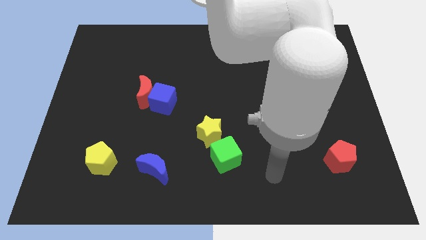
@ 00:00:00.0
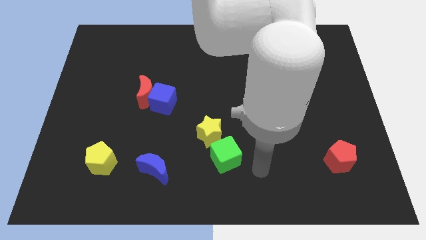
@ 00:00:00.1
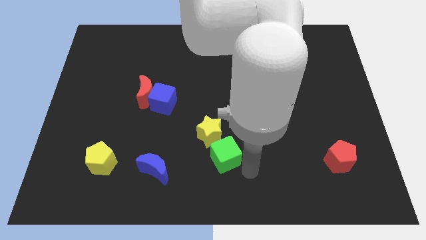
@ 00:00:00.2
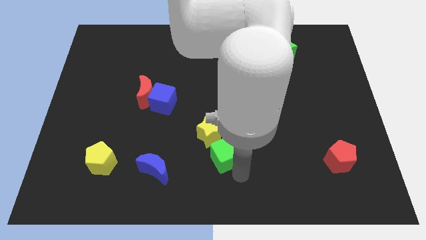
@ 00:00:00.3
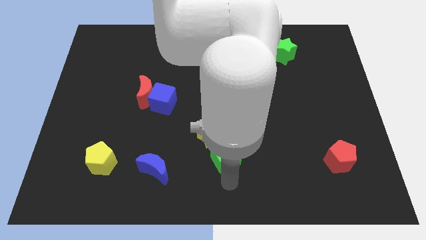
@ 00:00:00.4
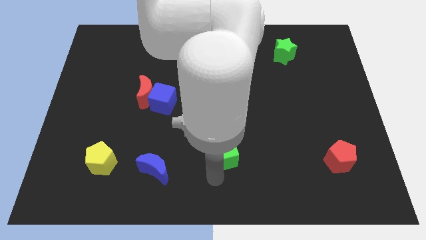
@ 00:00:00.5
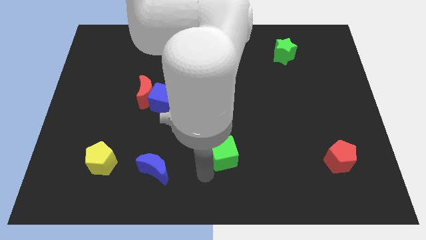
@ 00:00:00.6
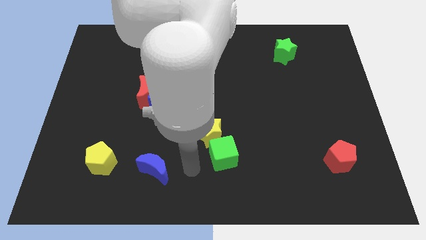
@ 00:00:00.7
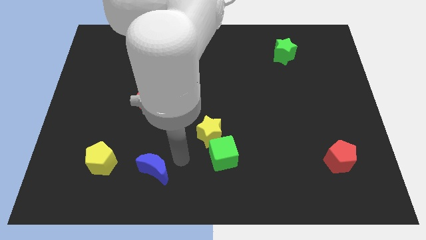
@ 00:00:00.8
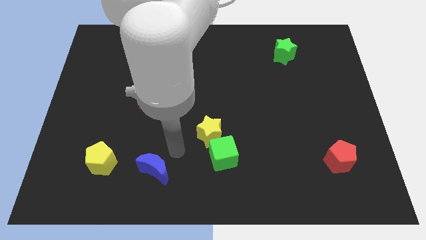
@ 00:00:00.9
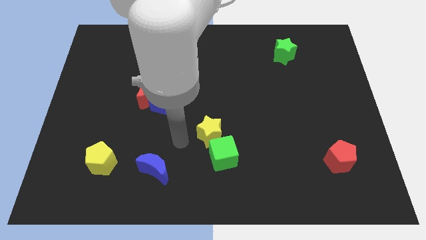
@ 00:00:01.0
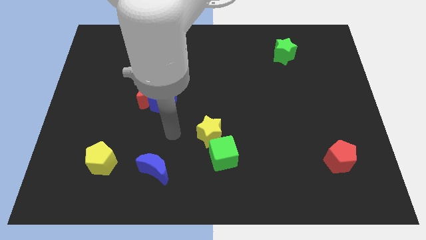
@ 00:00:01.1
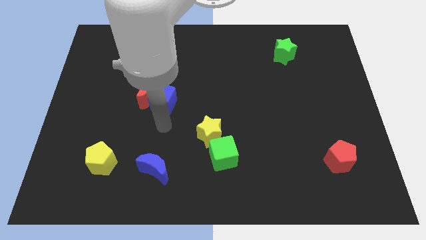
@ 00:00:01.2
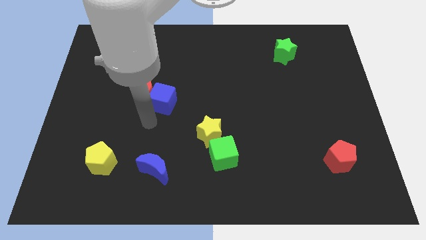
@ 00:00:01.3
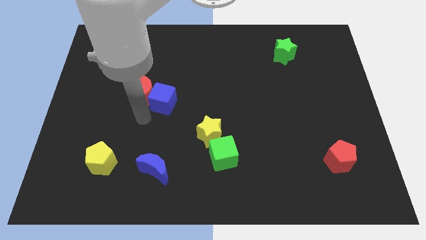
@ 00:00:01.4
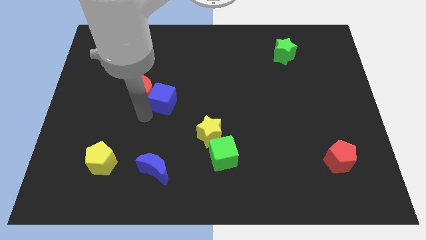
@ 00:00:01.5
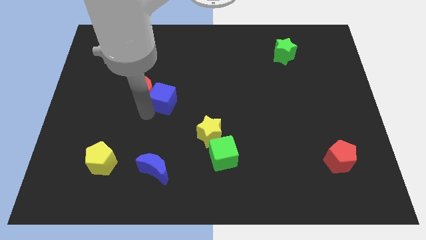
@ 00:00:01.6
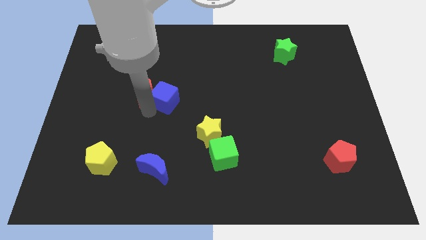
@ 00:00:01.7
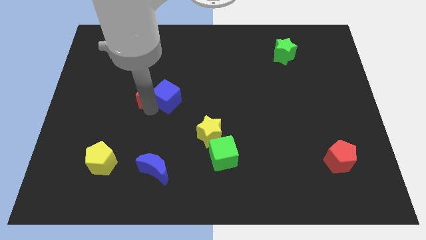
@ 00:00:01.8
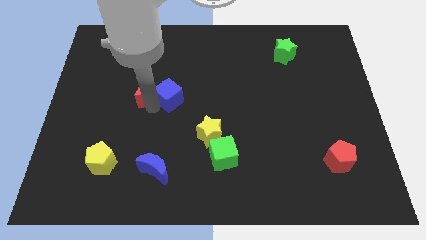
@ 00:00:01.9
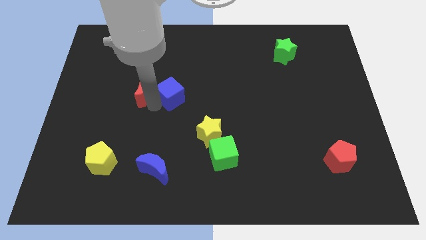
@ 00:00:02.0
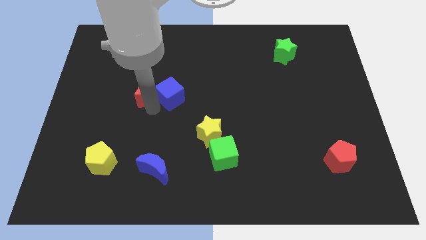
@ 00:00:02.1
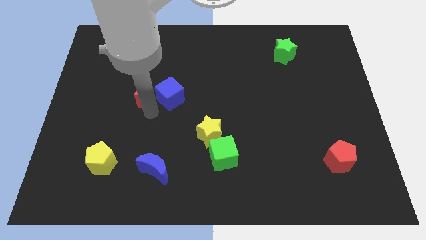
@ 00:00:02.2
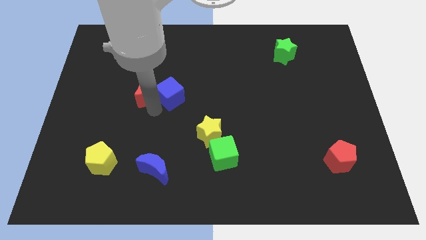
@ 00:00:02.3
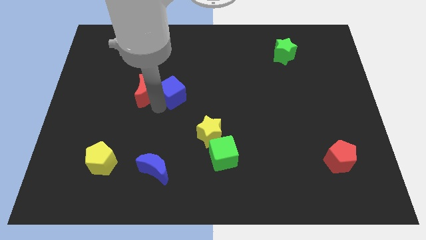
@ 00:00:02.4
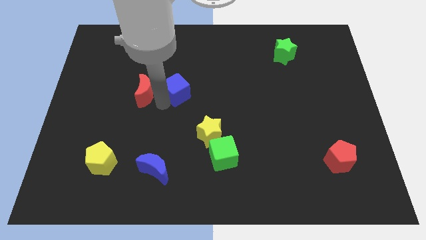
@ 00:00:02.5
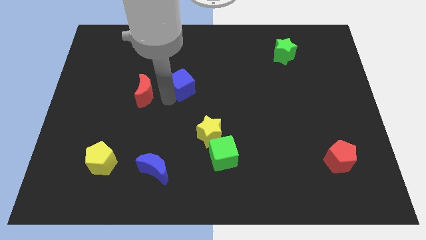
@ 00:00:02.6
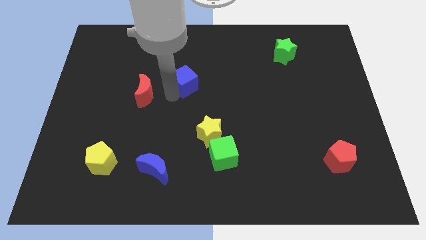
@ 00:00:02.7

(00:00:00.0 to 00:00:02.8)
push the blue cube a little up and right diagonally

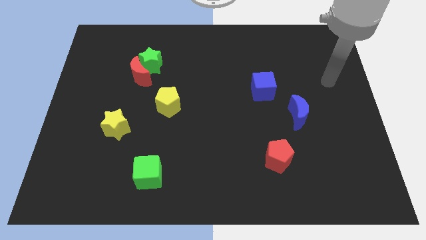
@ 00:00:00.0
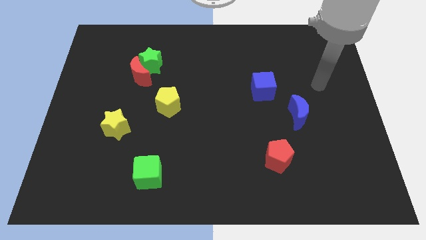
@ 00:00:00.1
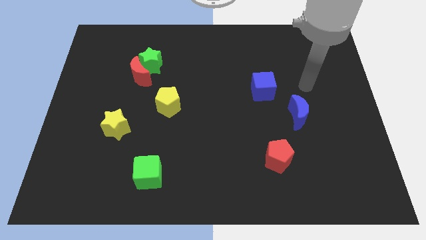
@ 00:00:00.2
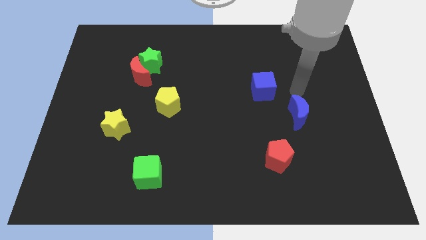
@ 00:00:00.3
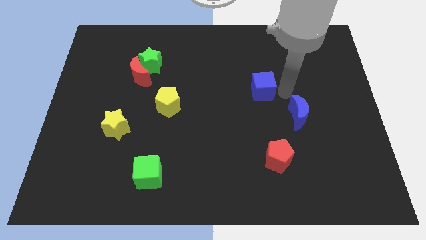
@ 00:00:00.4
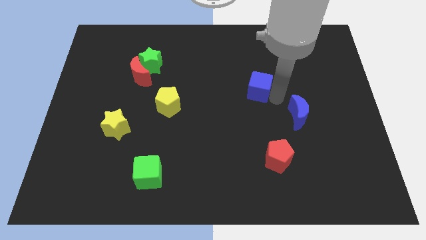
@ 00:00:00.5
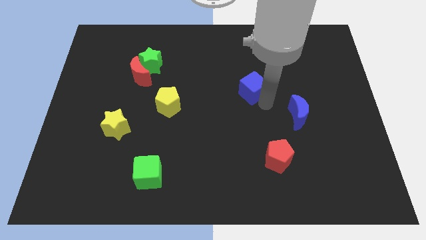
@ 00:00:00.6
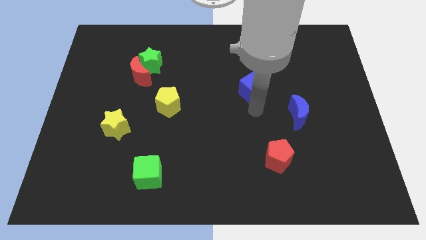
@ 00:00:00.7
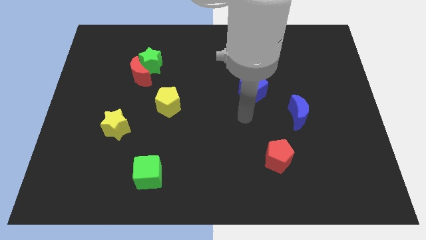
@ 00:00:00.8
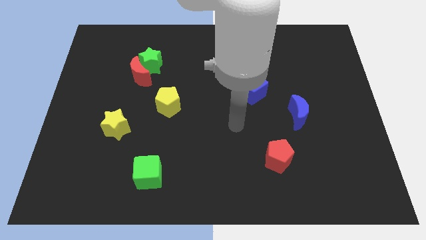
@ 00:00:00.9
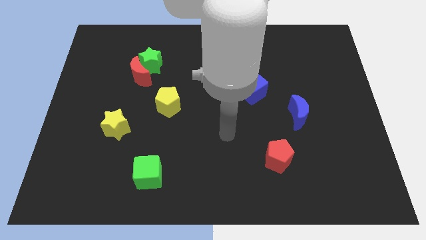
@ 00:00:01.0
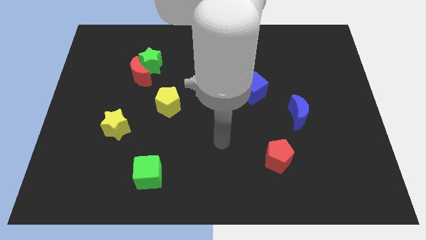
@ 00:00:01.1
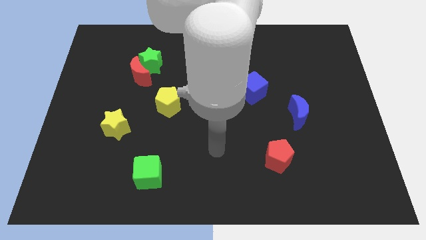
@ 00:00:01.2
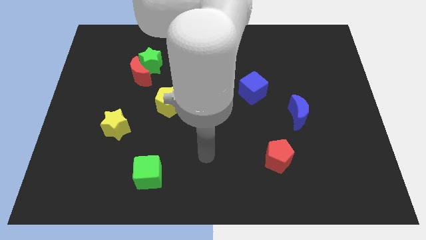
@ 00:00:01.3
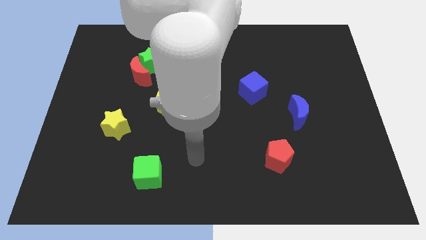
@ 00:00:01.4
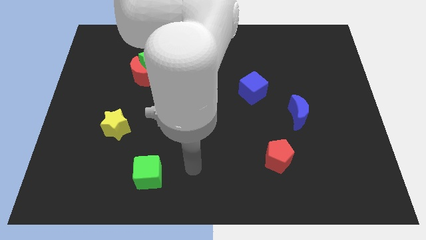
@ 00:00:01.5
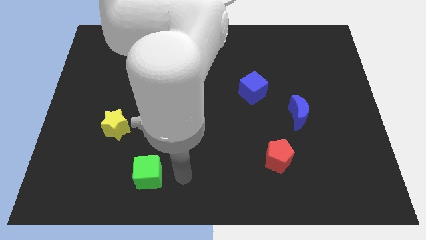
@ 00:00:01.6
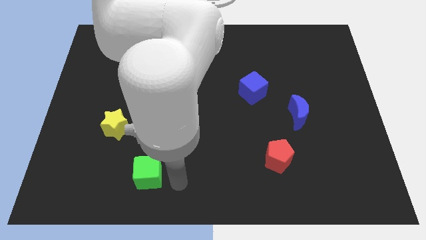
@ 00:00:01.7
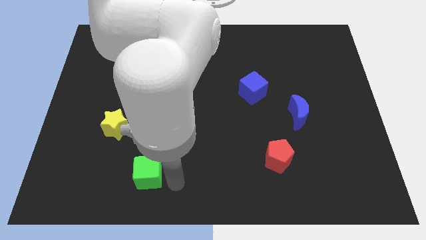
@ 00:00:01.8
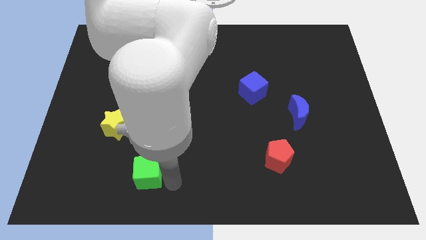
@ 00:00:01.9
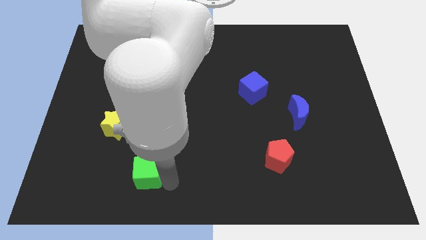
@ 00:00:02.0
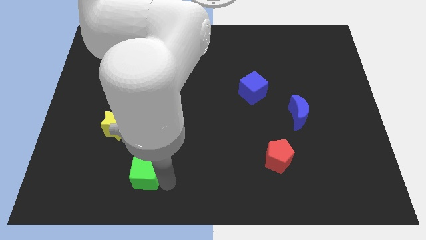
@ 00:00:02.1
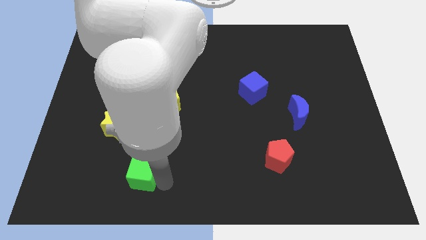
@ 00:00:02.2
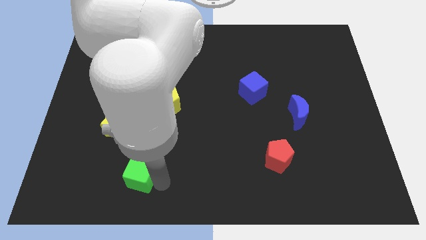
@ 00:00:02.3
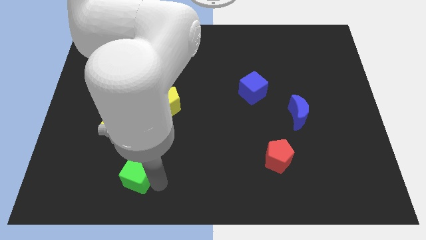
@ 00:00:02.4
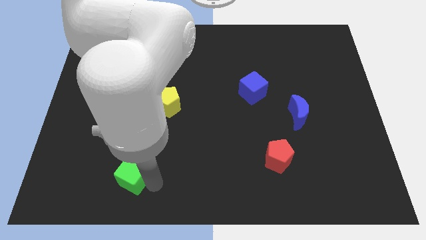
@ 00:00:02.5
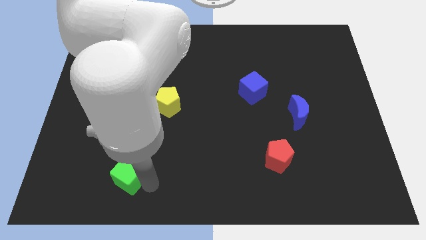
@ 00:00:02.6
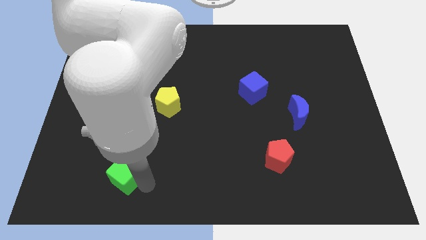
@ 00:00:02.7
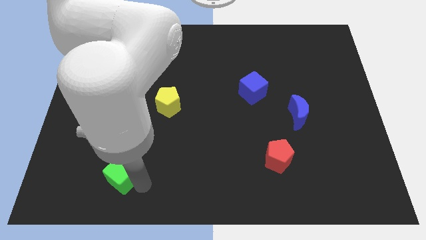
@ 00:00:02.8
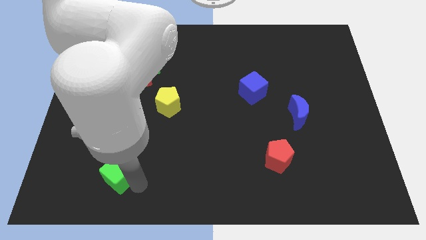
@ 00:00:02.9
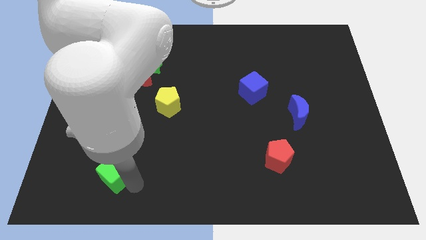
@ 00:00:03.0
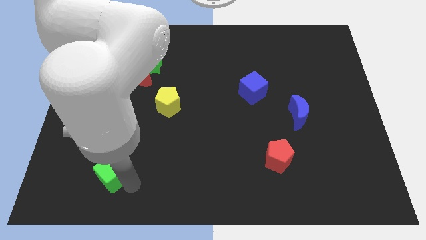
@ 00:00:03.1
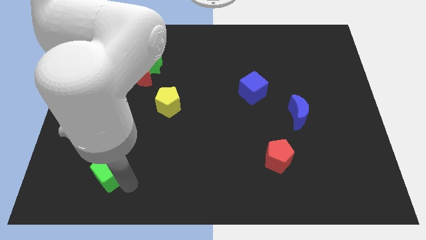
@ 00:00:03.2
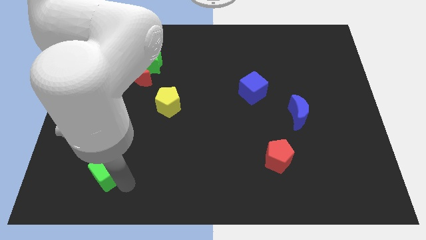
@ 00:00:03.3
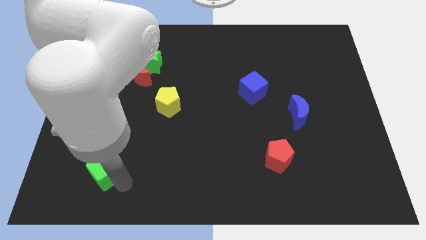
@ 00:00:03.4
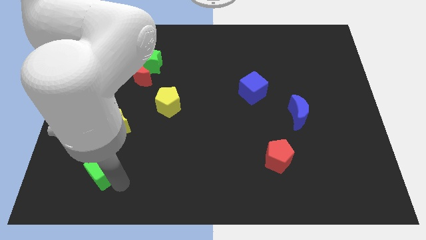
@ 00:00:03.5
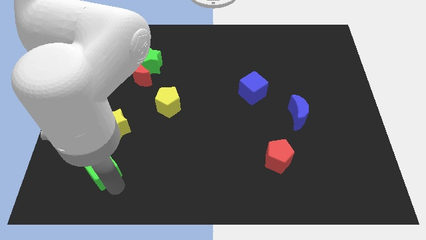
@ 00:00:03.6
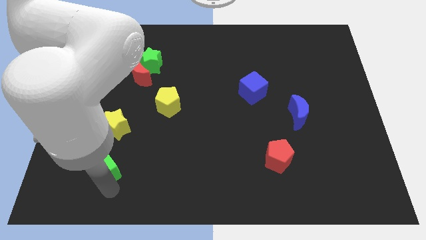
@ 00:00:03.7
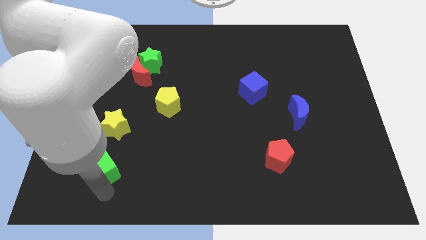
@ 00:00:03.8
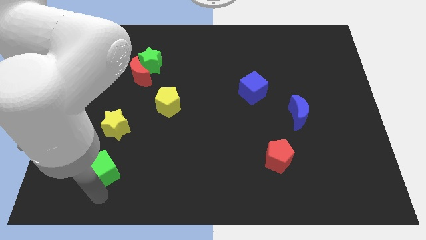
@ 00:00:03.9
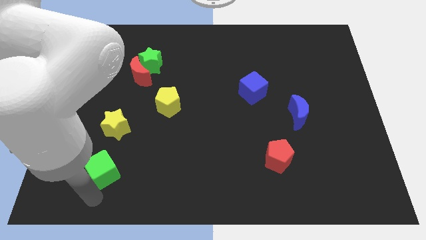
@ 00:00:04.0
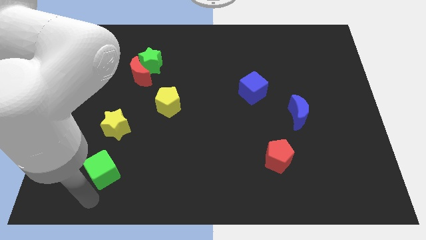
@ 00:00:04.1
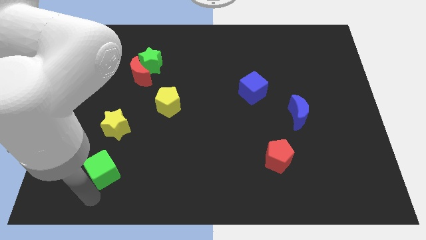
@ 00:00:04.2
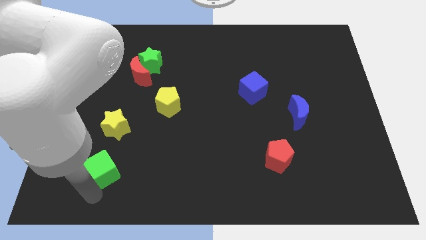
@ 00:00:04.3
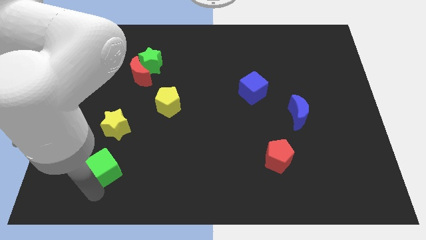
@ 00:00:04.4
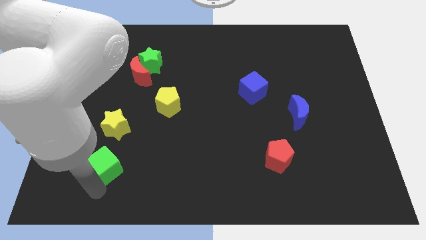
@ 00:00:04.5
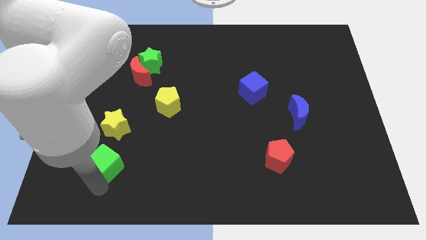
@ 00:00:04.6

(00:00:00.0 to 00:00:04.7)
slide the green cube up and then left a little bit

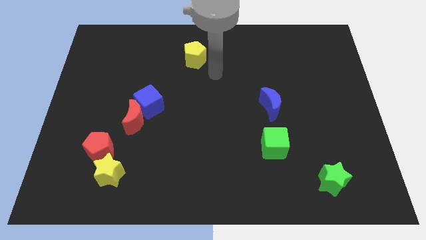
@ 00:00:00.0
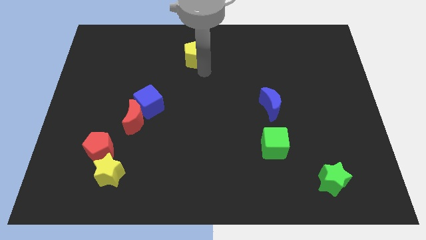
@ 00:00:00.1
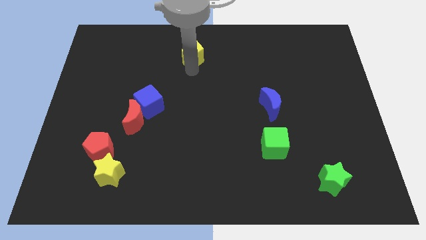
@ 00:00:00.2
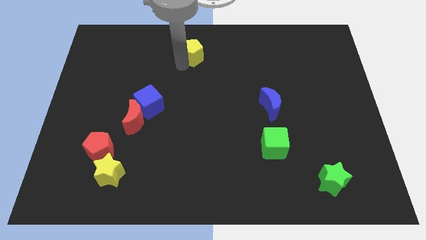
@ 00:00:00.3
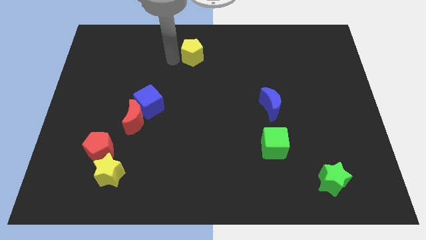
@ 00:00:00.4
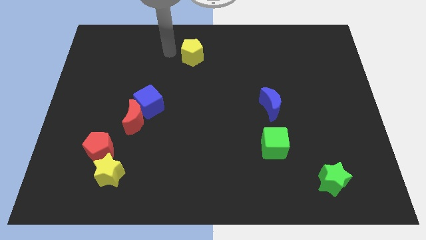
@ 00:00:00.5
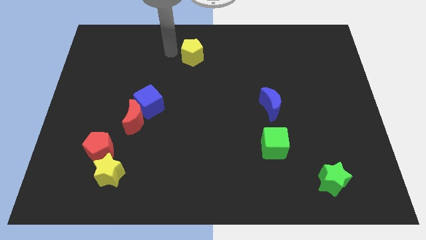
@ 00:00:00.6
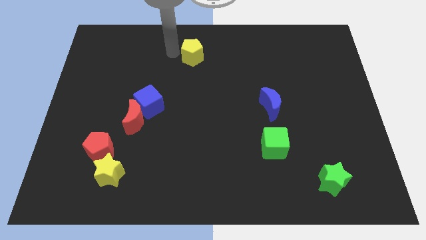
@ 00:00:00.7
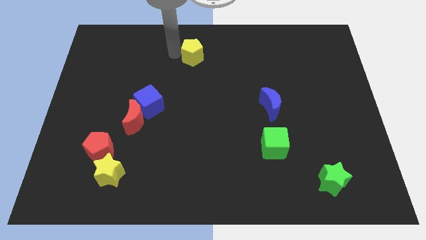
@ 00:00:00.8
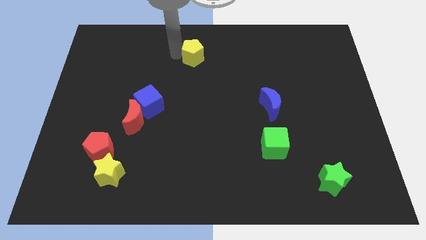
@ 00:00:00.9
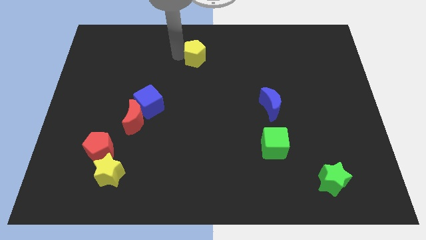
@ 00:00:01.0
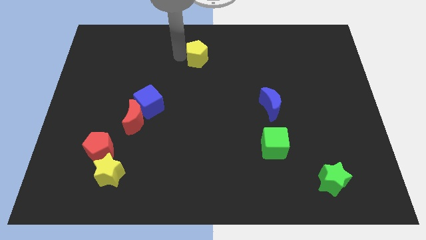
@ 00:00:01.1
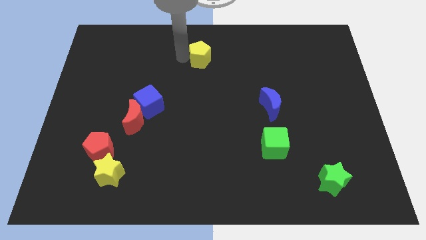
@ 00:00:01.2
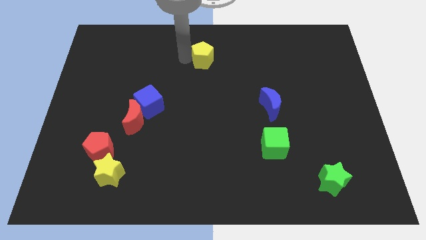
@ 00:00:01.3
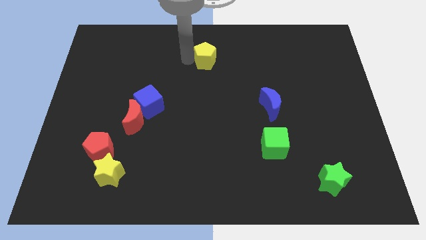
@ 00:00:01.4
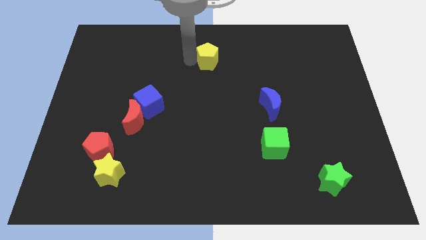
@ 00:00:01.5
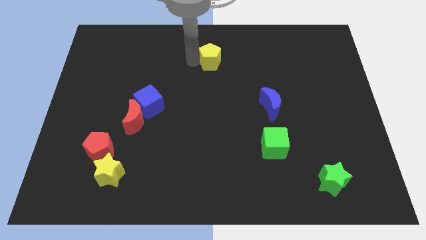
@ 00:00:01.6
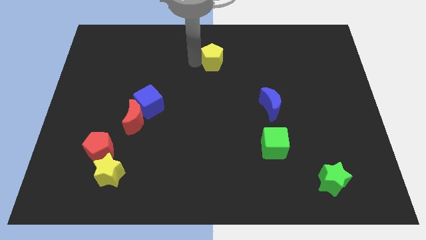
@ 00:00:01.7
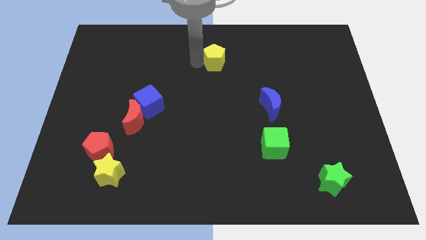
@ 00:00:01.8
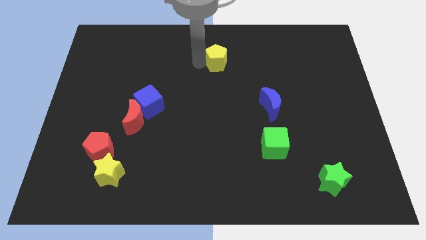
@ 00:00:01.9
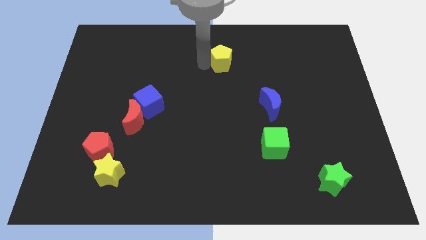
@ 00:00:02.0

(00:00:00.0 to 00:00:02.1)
slightly move the yellow pentagon right
